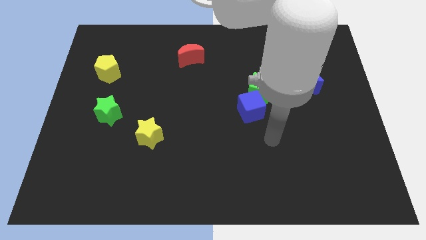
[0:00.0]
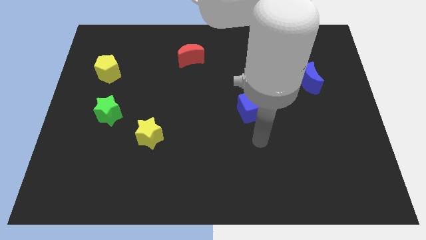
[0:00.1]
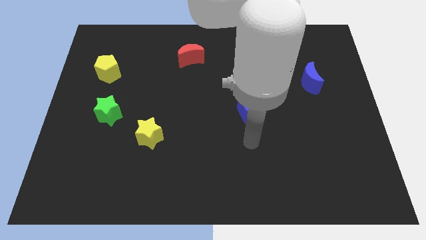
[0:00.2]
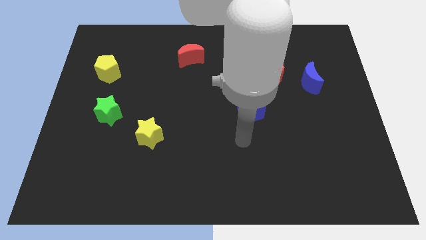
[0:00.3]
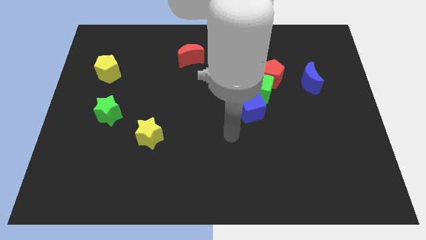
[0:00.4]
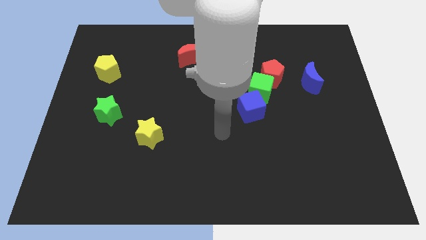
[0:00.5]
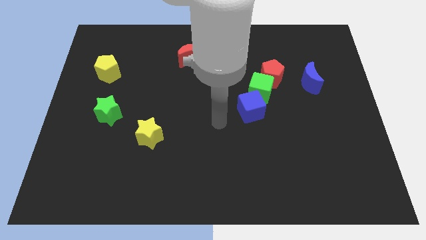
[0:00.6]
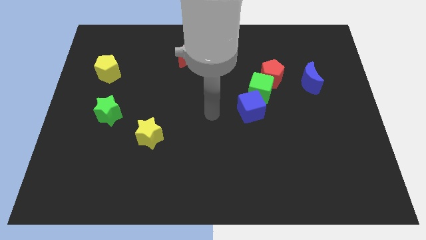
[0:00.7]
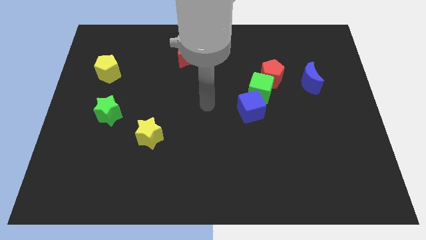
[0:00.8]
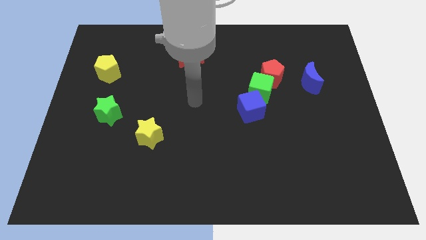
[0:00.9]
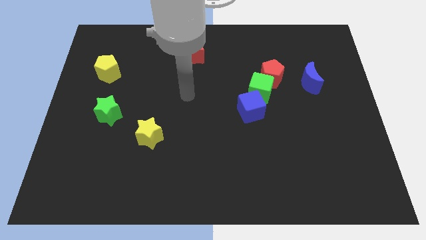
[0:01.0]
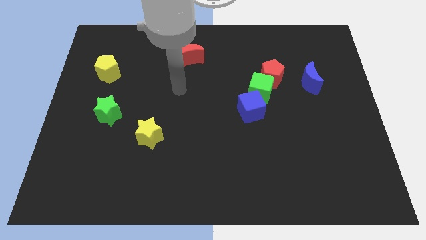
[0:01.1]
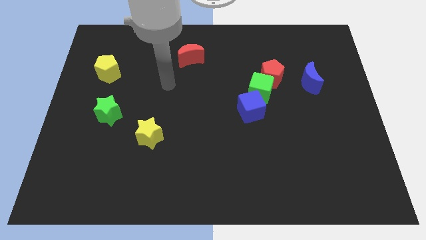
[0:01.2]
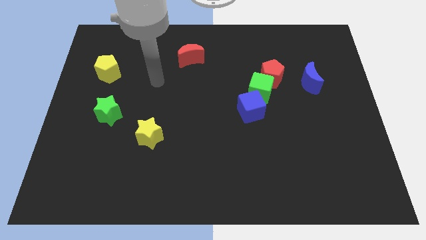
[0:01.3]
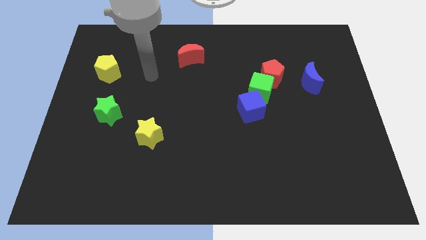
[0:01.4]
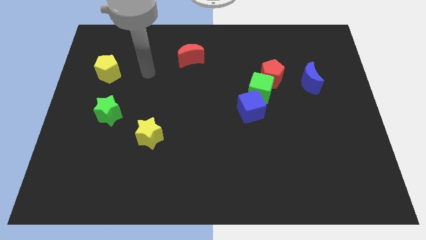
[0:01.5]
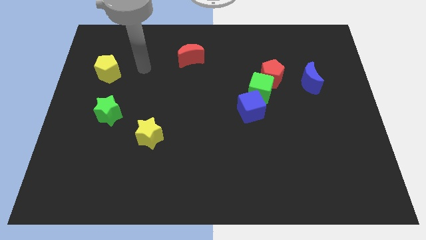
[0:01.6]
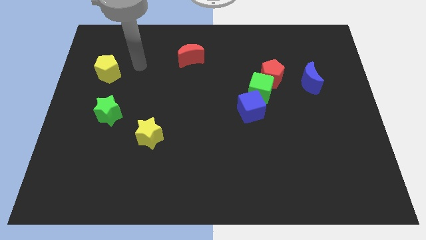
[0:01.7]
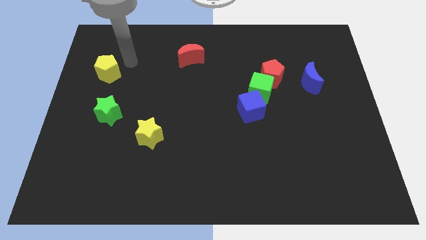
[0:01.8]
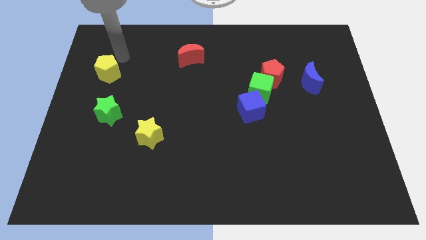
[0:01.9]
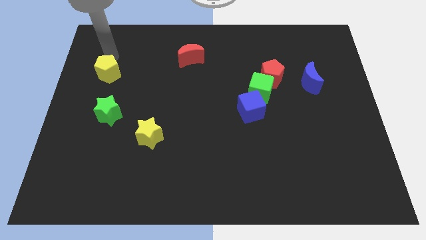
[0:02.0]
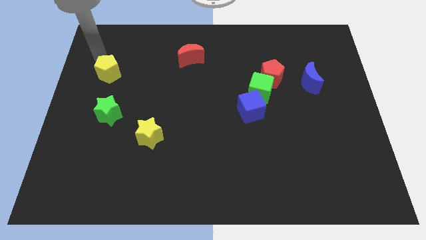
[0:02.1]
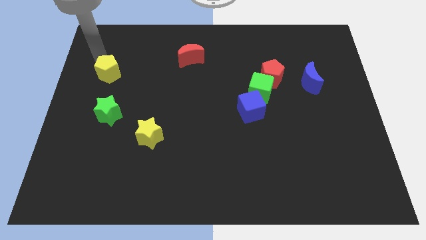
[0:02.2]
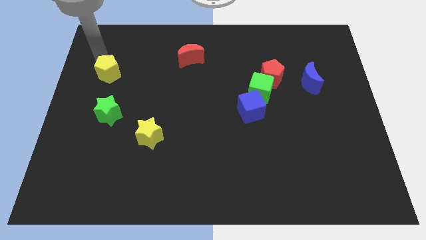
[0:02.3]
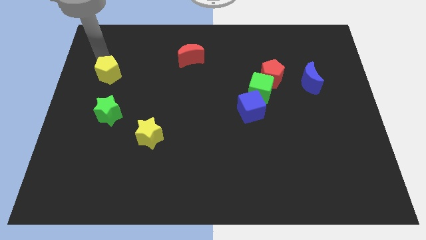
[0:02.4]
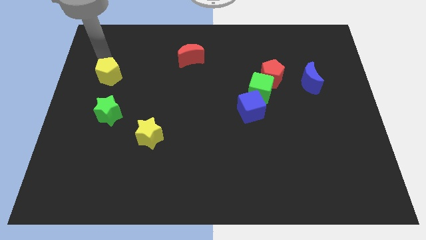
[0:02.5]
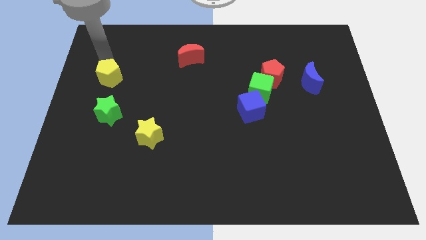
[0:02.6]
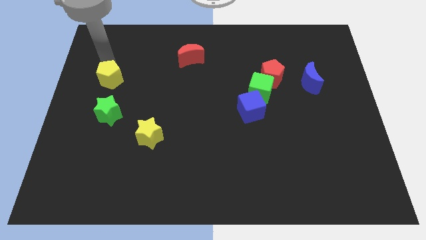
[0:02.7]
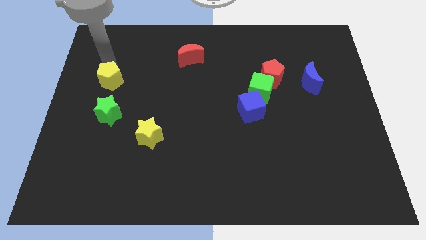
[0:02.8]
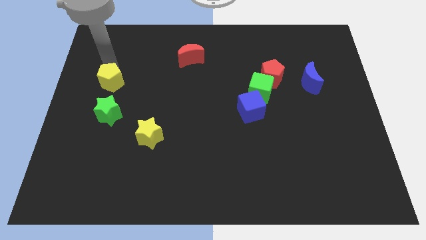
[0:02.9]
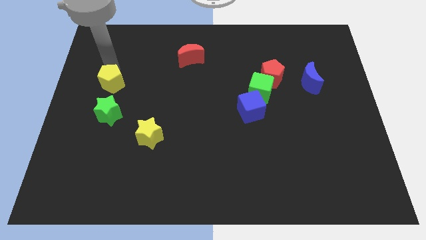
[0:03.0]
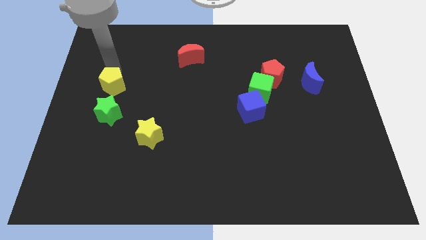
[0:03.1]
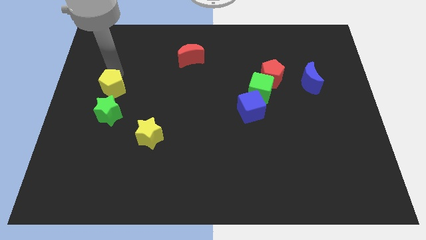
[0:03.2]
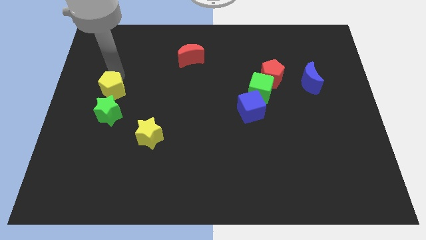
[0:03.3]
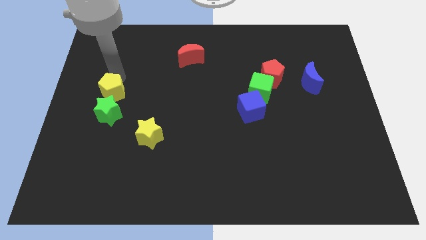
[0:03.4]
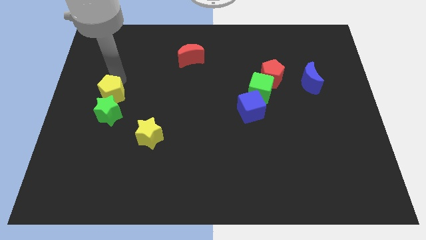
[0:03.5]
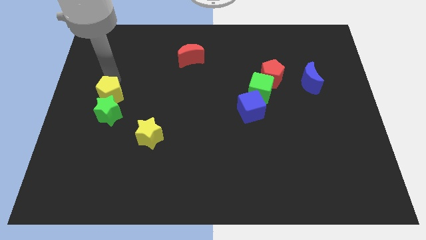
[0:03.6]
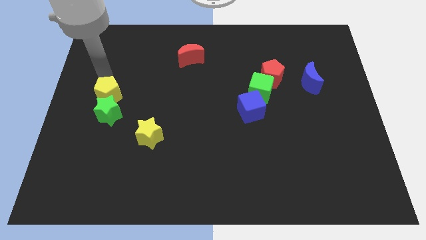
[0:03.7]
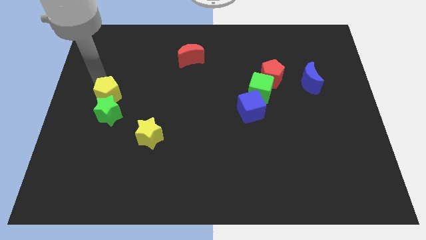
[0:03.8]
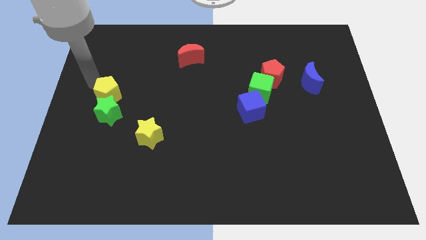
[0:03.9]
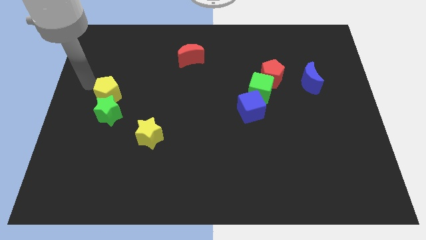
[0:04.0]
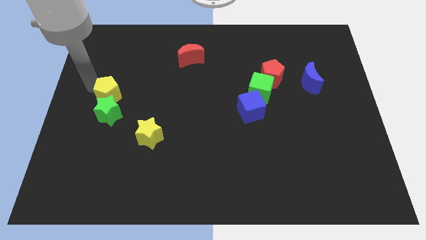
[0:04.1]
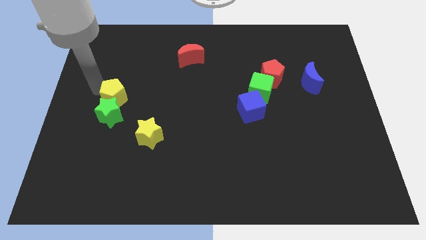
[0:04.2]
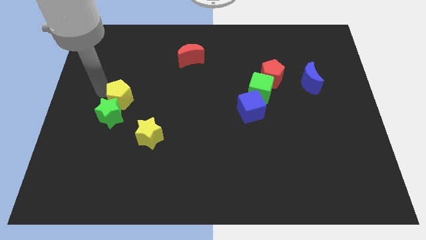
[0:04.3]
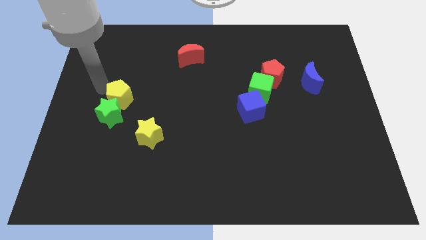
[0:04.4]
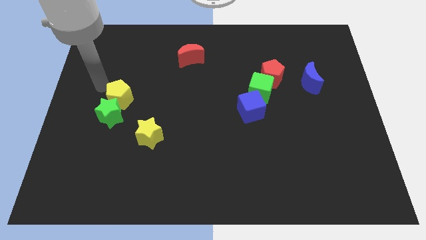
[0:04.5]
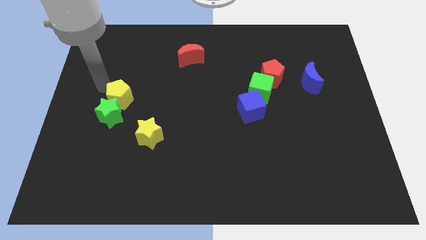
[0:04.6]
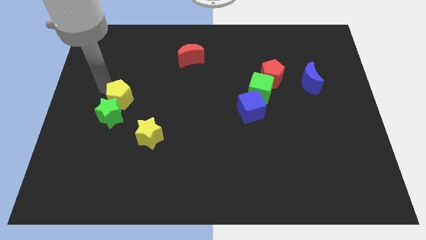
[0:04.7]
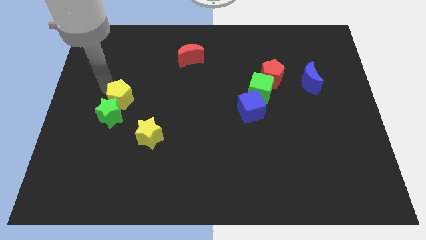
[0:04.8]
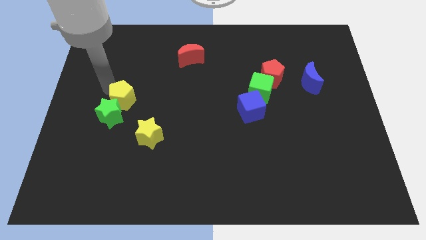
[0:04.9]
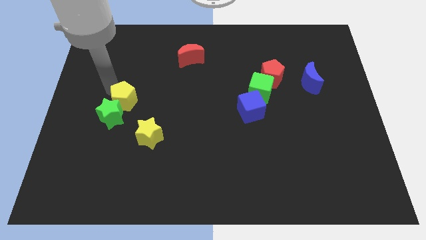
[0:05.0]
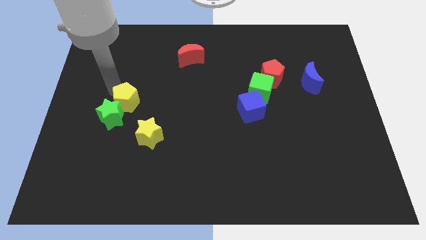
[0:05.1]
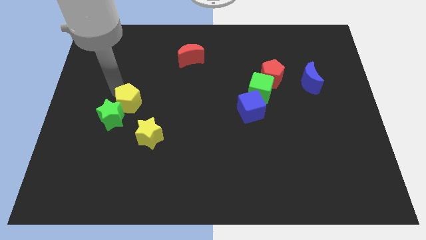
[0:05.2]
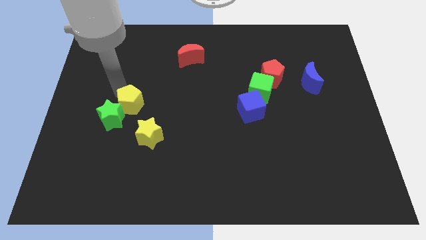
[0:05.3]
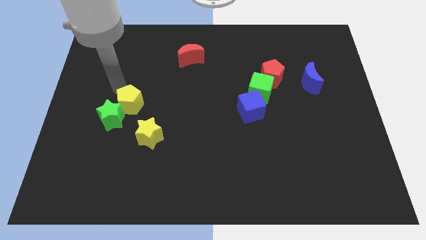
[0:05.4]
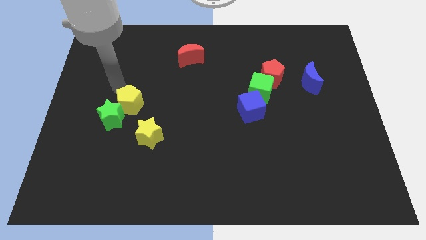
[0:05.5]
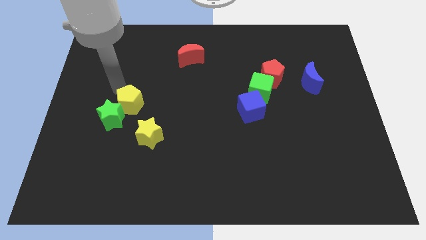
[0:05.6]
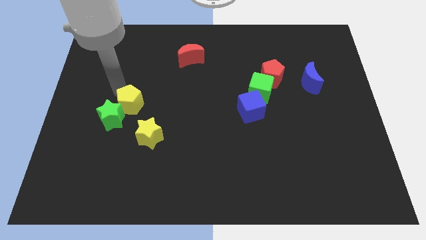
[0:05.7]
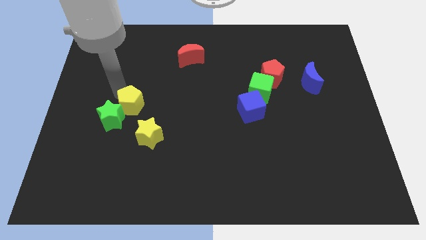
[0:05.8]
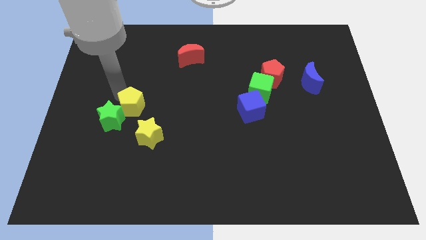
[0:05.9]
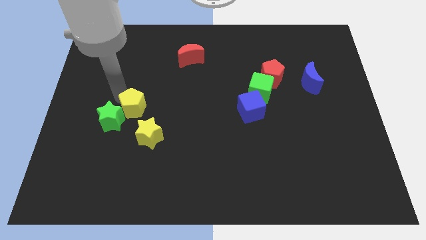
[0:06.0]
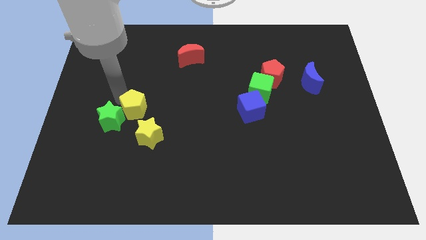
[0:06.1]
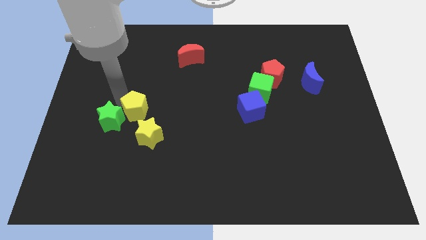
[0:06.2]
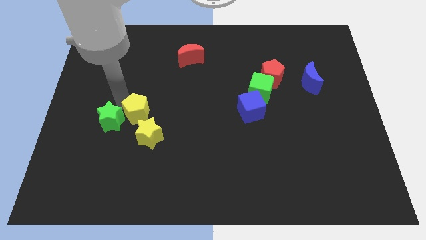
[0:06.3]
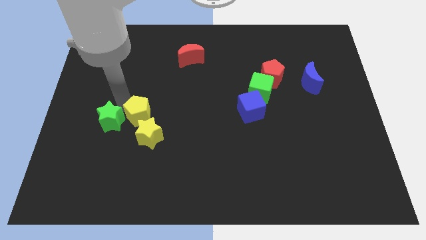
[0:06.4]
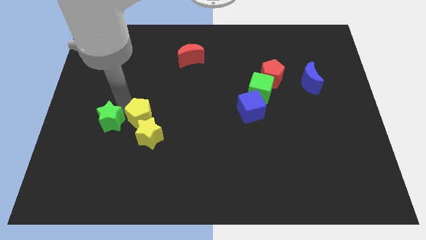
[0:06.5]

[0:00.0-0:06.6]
slide the yellow pentagon to the yellow star
